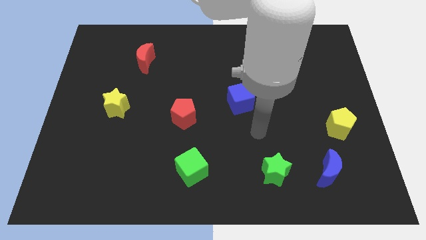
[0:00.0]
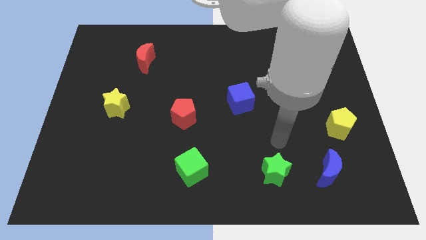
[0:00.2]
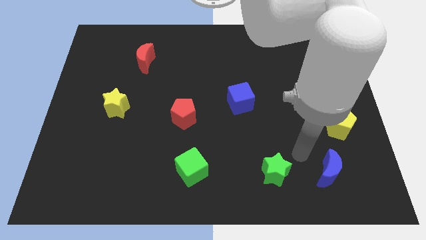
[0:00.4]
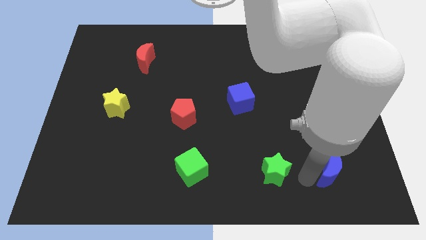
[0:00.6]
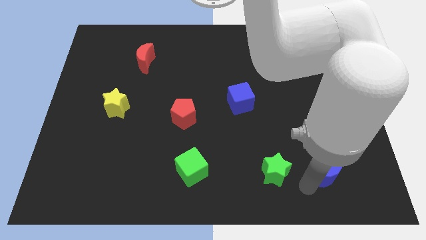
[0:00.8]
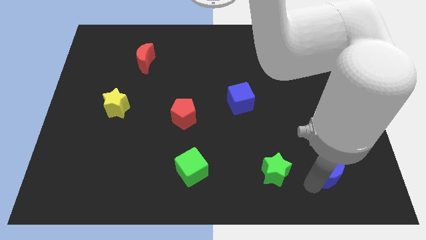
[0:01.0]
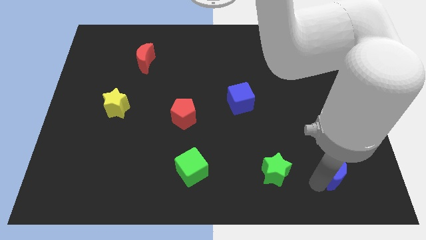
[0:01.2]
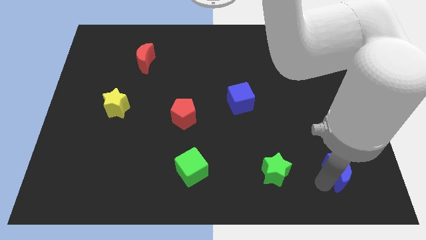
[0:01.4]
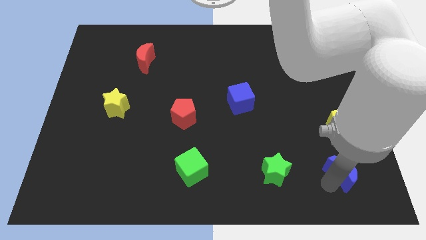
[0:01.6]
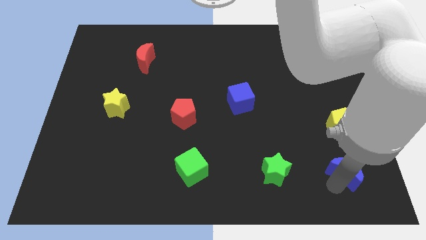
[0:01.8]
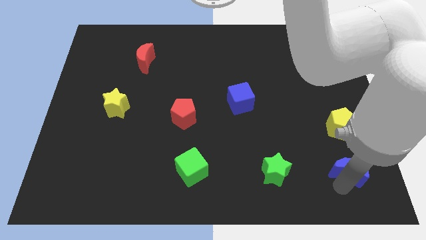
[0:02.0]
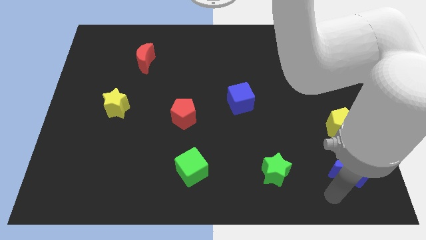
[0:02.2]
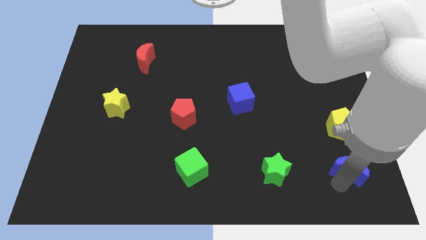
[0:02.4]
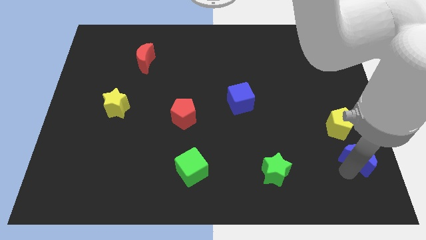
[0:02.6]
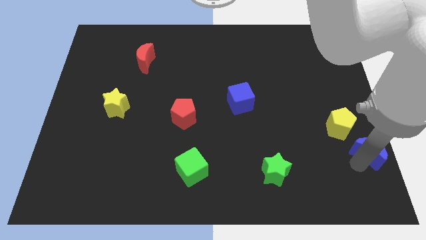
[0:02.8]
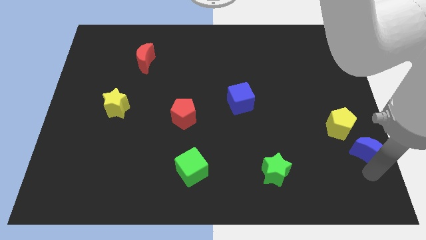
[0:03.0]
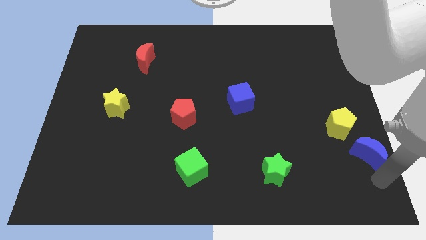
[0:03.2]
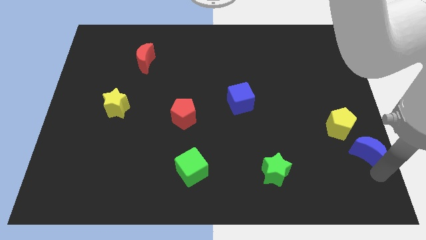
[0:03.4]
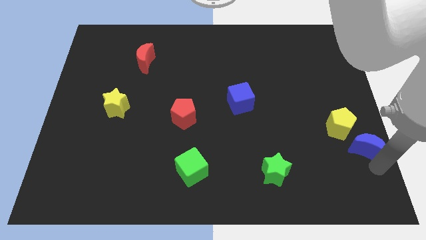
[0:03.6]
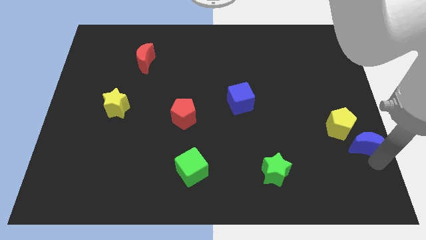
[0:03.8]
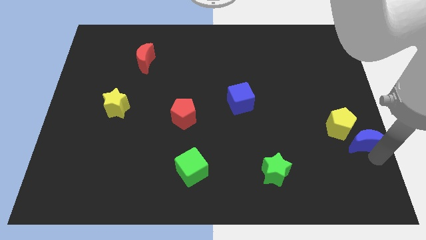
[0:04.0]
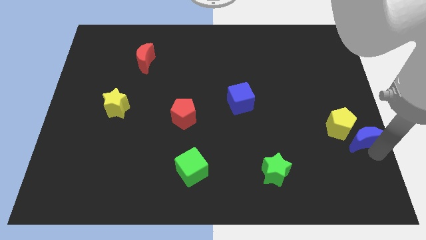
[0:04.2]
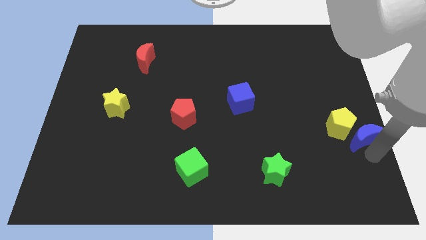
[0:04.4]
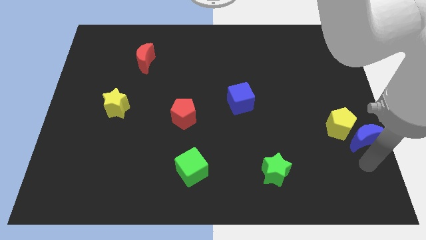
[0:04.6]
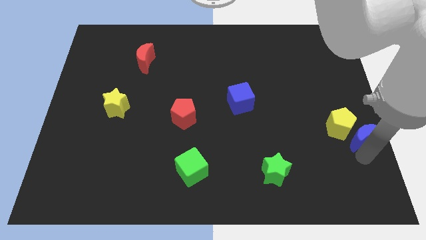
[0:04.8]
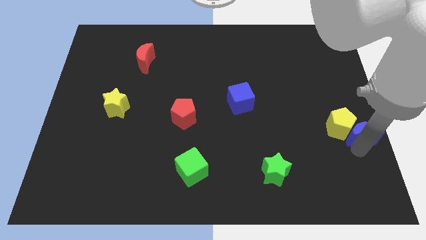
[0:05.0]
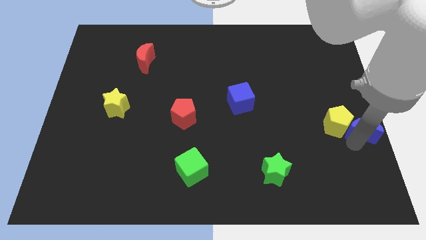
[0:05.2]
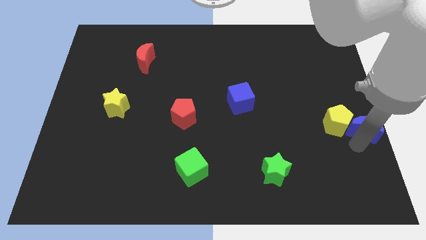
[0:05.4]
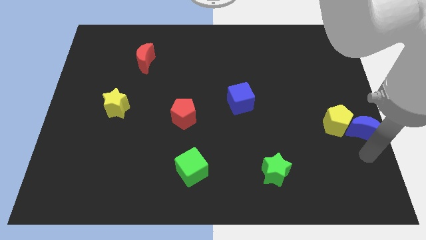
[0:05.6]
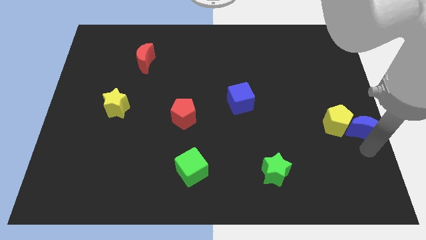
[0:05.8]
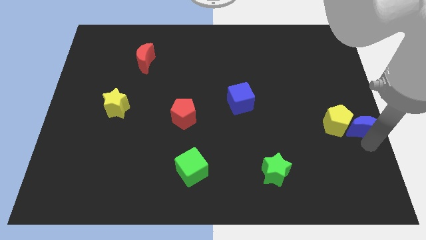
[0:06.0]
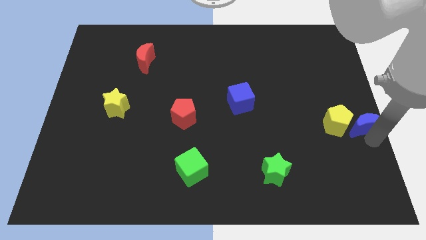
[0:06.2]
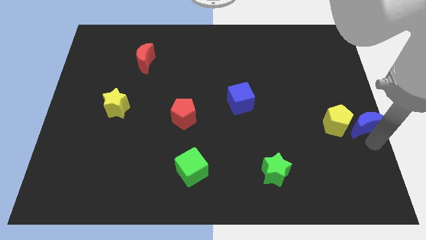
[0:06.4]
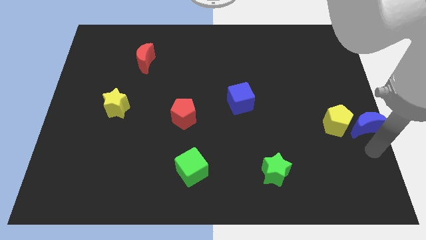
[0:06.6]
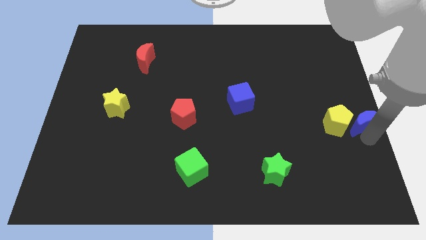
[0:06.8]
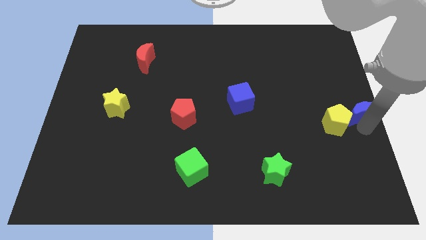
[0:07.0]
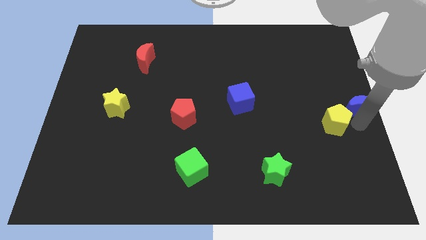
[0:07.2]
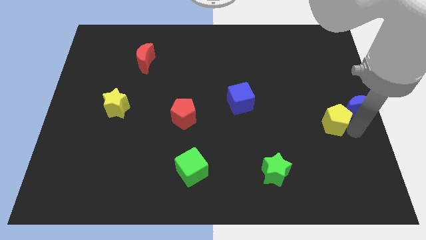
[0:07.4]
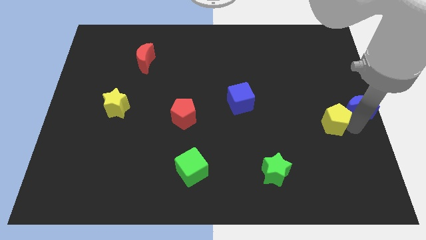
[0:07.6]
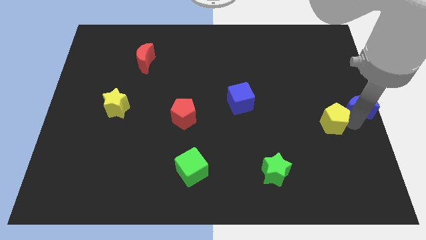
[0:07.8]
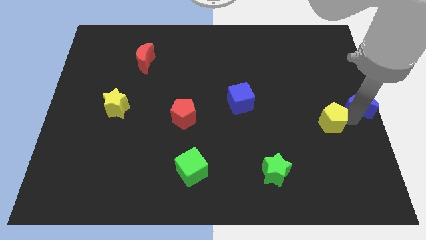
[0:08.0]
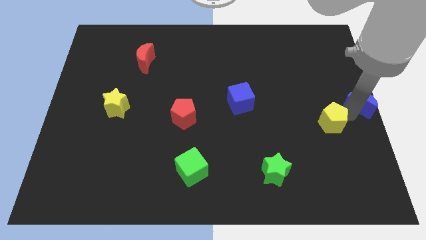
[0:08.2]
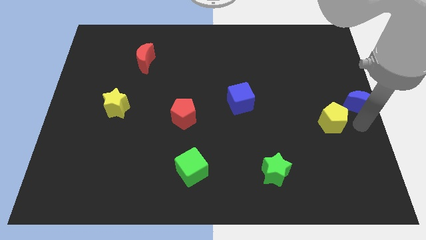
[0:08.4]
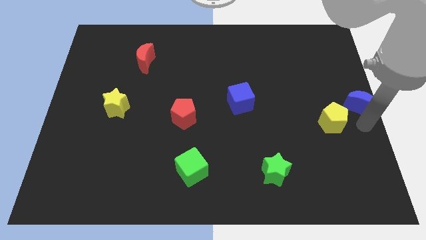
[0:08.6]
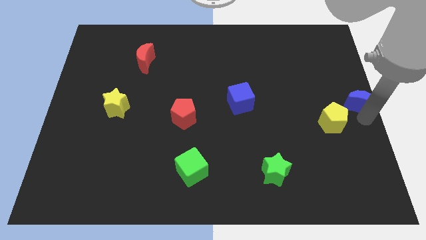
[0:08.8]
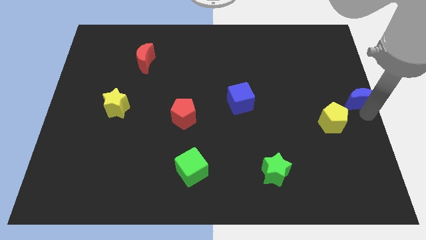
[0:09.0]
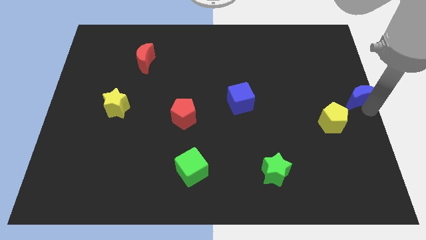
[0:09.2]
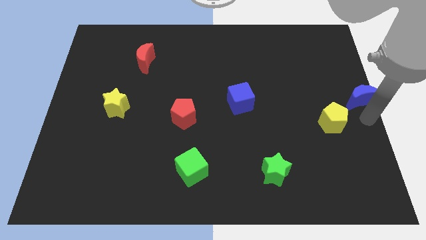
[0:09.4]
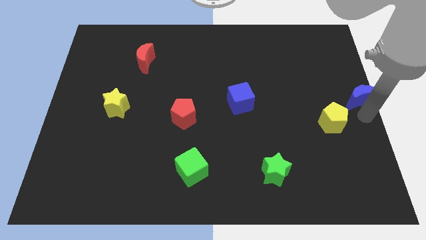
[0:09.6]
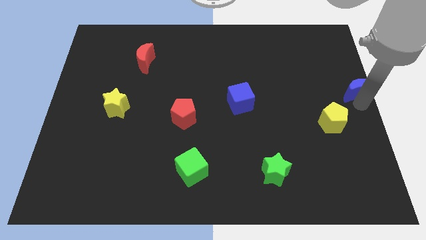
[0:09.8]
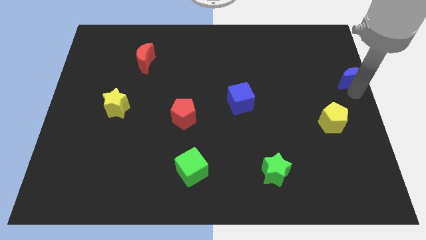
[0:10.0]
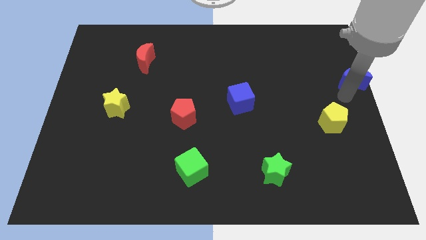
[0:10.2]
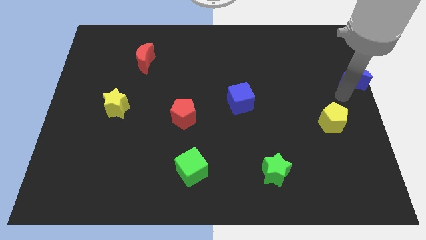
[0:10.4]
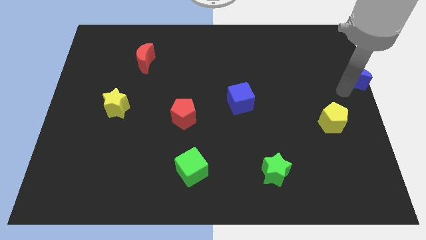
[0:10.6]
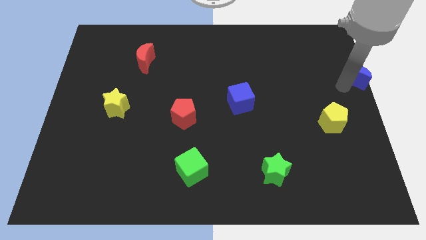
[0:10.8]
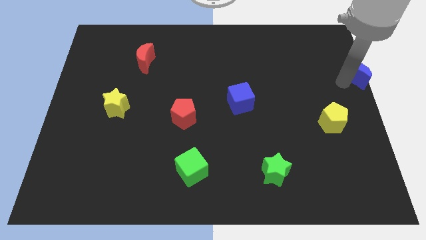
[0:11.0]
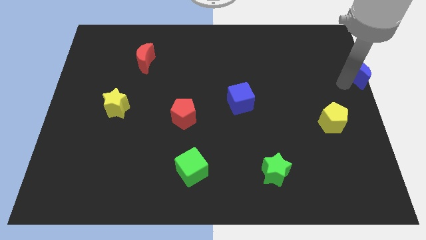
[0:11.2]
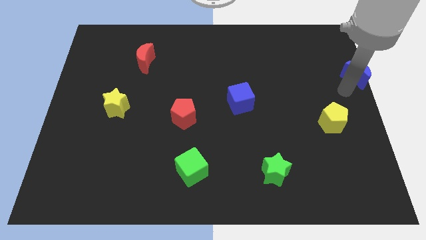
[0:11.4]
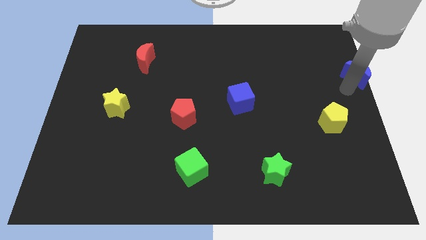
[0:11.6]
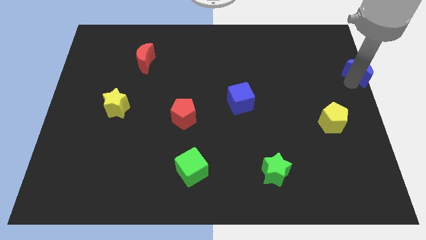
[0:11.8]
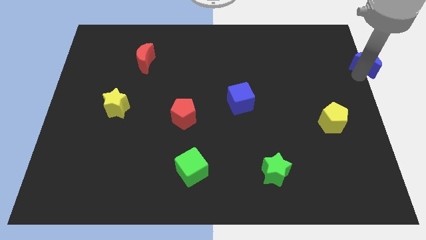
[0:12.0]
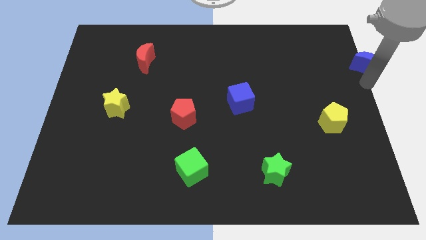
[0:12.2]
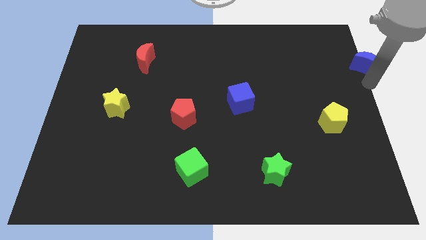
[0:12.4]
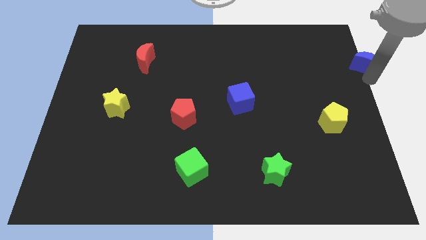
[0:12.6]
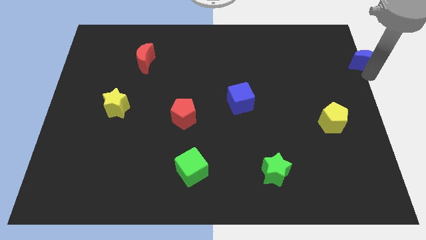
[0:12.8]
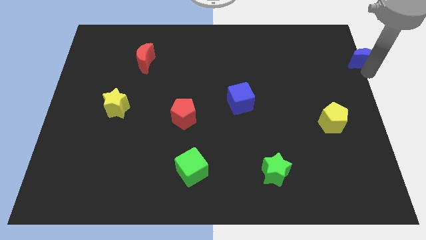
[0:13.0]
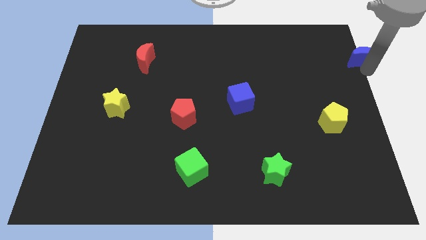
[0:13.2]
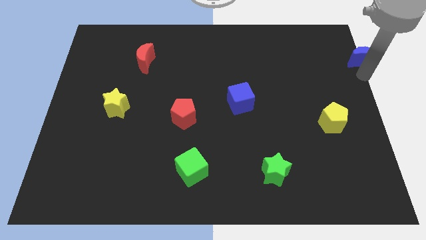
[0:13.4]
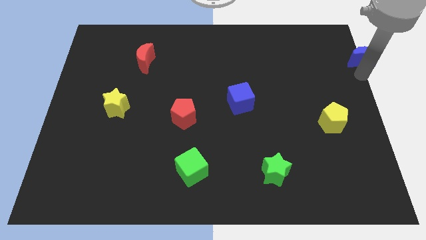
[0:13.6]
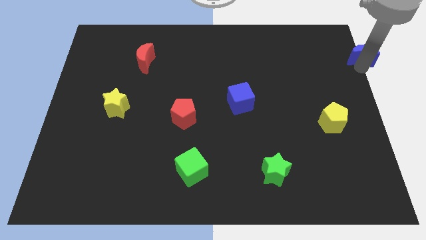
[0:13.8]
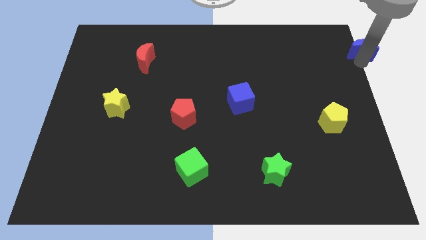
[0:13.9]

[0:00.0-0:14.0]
put the blue moon to the upper right corner

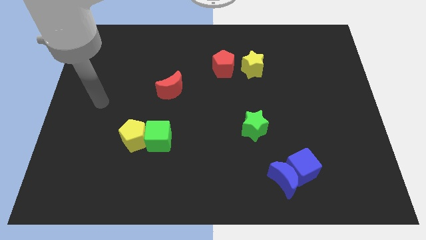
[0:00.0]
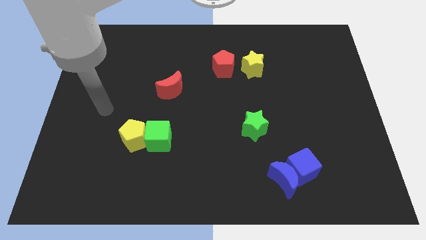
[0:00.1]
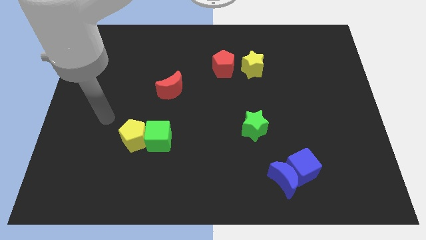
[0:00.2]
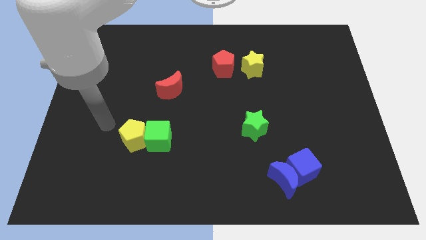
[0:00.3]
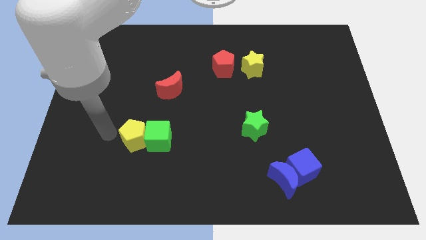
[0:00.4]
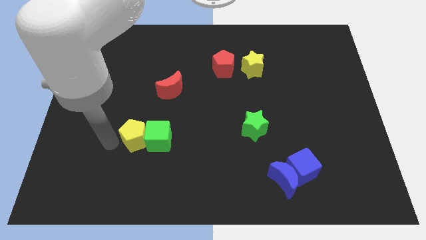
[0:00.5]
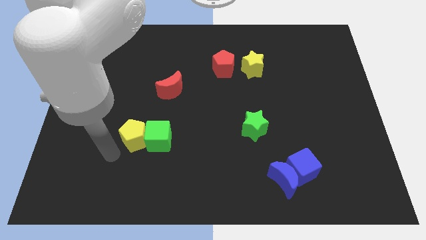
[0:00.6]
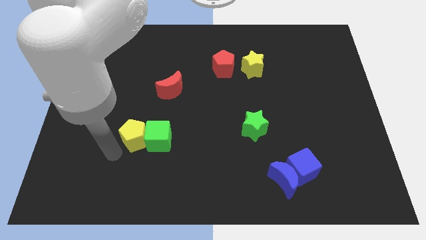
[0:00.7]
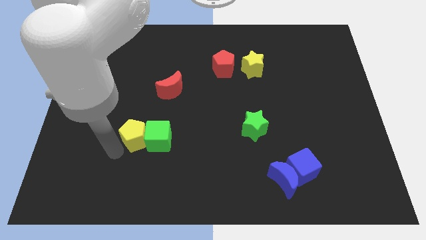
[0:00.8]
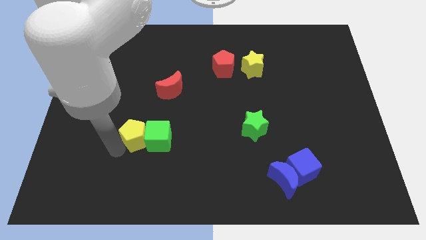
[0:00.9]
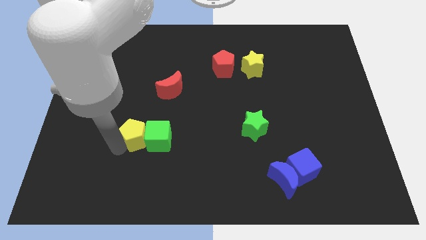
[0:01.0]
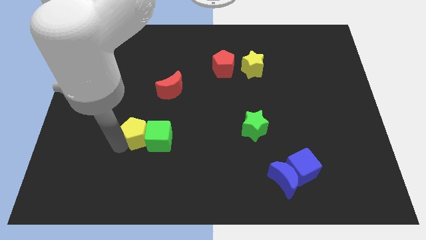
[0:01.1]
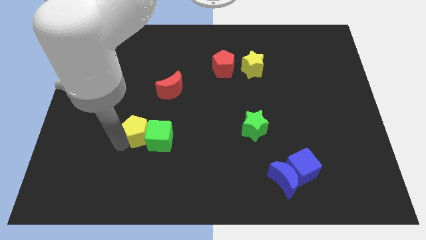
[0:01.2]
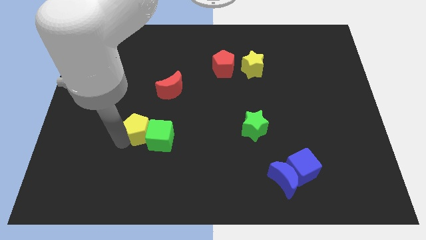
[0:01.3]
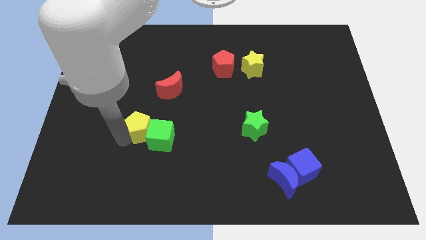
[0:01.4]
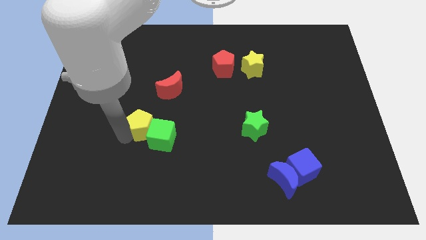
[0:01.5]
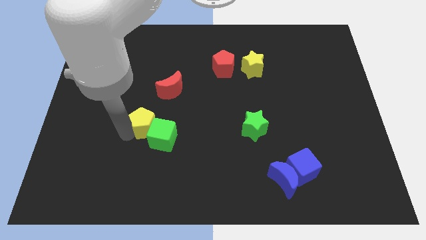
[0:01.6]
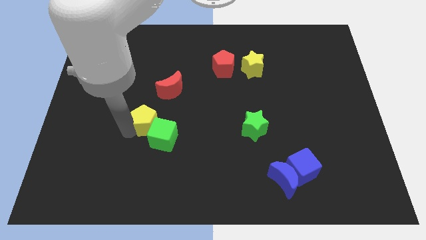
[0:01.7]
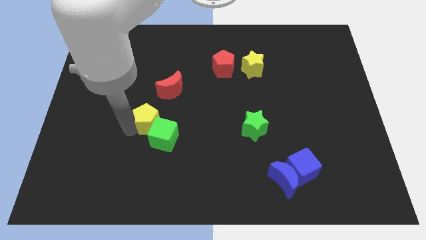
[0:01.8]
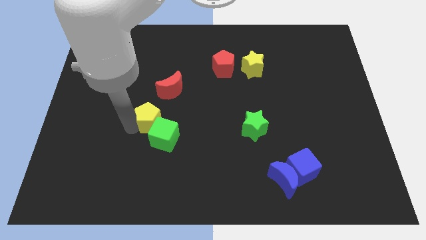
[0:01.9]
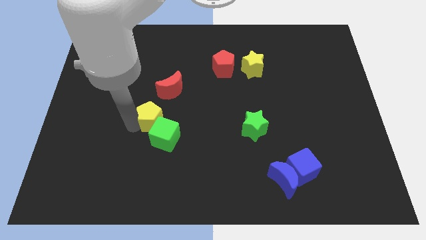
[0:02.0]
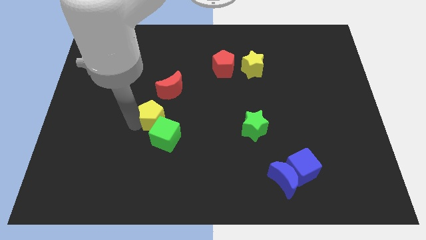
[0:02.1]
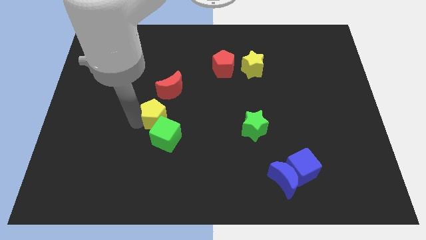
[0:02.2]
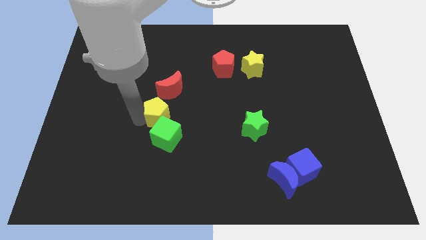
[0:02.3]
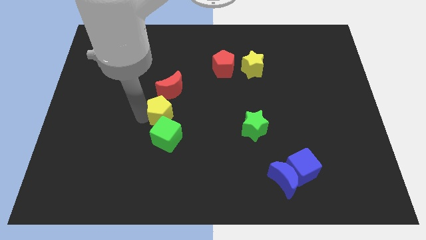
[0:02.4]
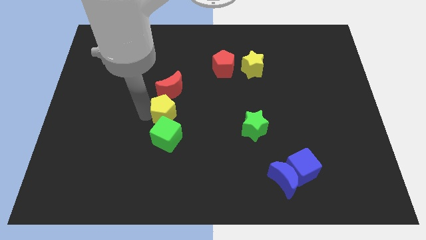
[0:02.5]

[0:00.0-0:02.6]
move the yellow pentagon to the center
